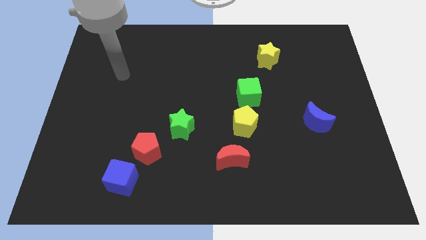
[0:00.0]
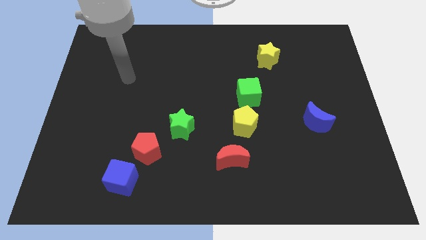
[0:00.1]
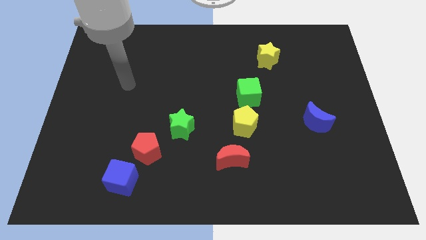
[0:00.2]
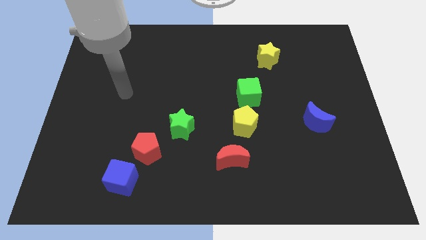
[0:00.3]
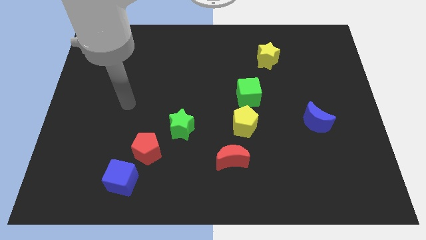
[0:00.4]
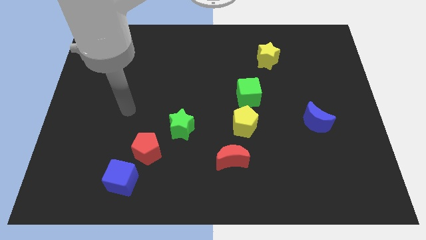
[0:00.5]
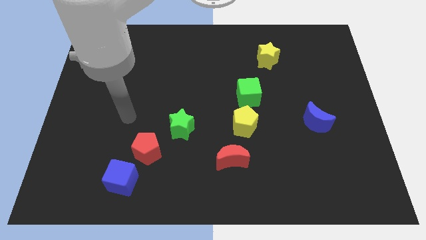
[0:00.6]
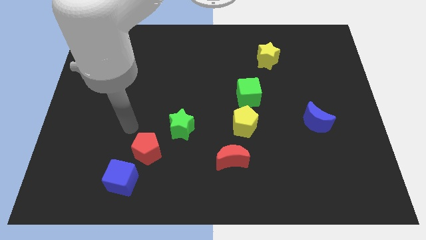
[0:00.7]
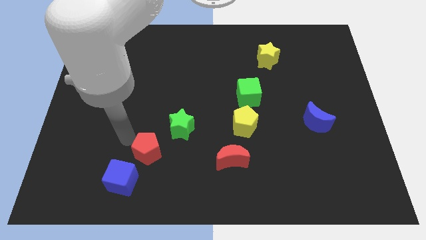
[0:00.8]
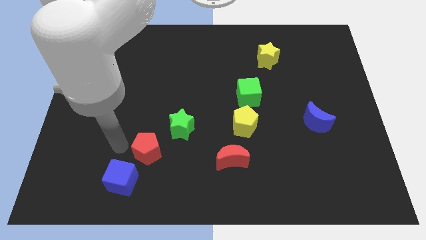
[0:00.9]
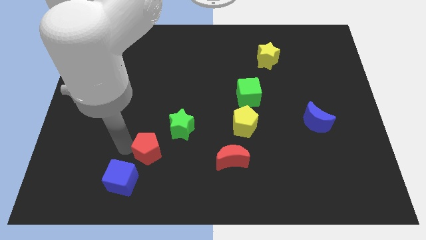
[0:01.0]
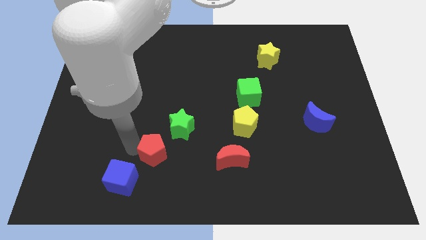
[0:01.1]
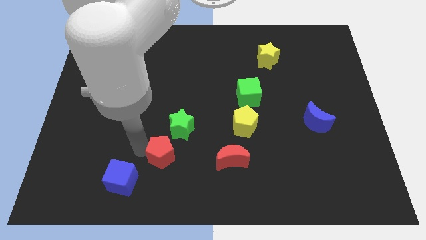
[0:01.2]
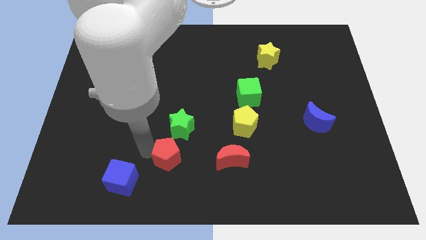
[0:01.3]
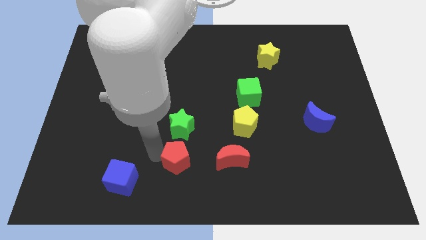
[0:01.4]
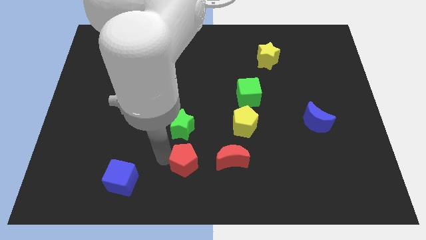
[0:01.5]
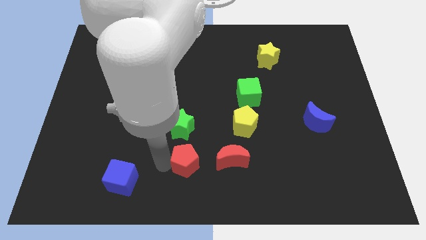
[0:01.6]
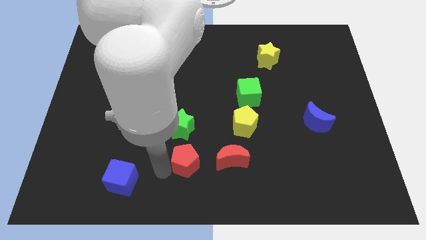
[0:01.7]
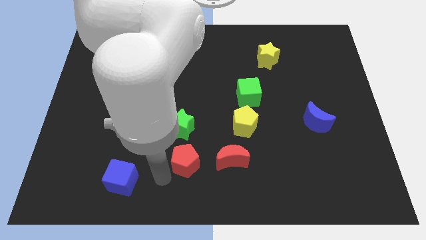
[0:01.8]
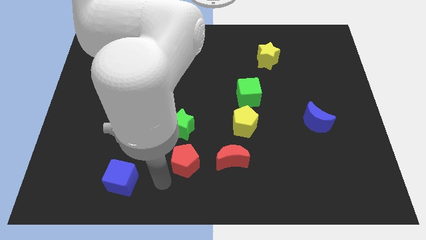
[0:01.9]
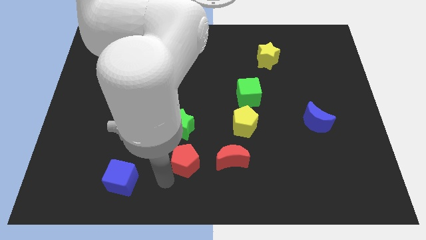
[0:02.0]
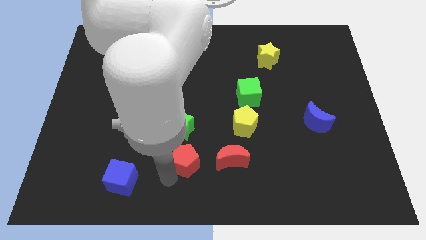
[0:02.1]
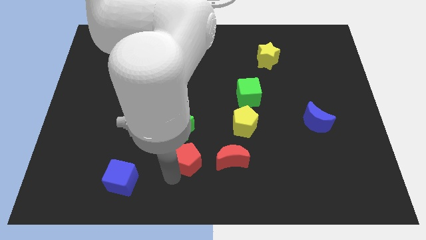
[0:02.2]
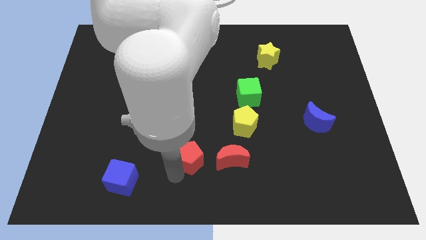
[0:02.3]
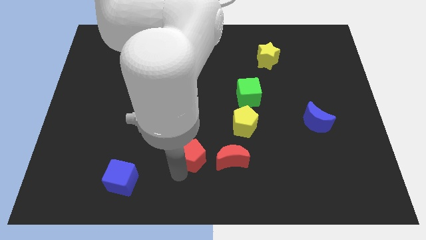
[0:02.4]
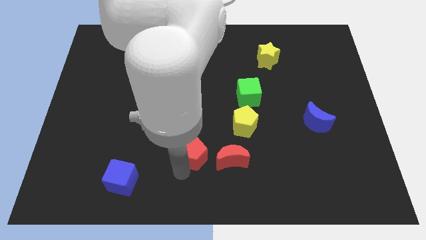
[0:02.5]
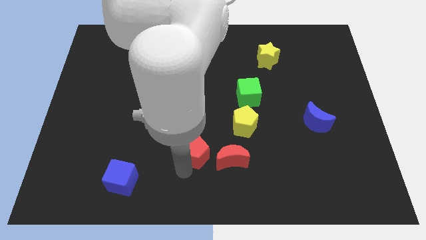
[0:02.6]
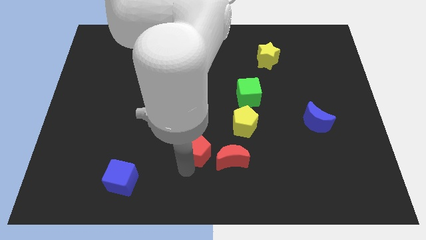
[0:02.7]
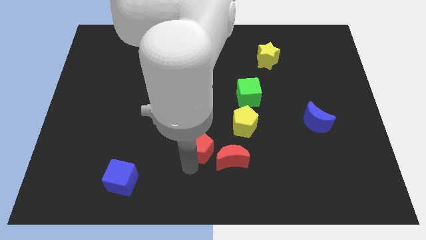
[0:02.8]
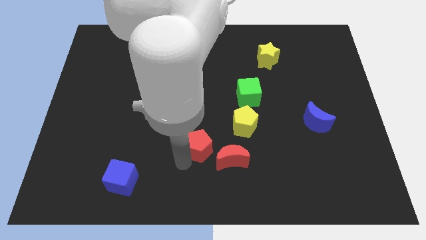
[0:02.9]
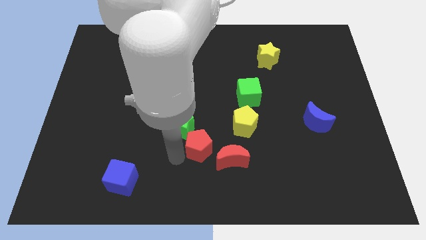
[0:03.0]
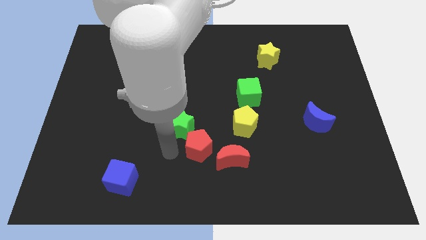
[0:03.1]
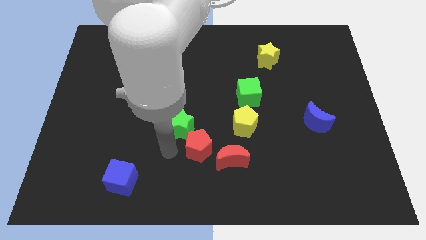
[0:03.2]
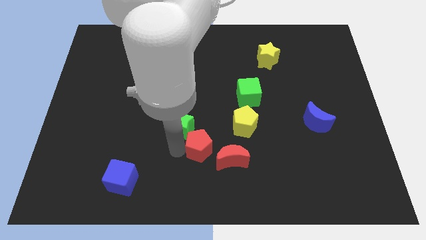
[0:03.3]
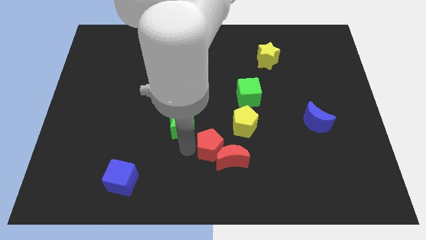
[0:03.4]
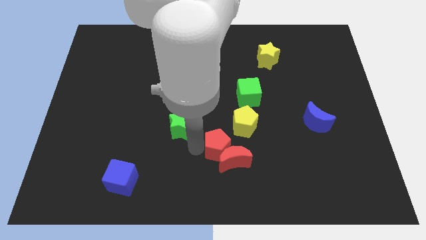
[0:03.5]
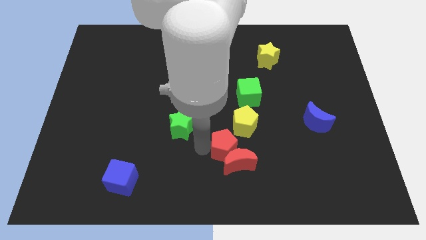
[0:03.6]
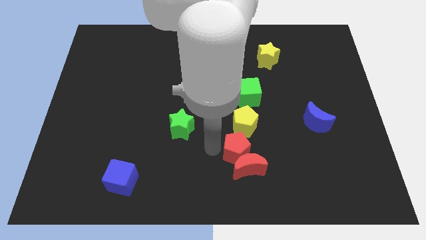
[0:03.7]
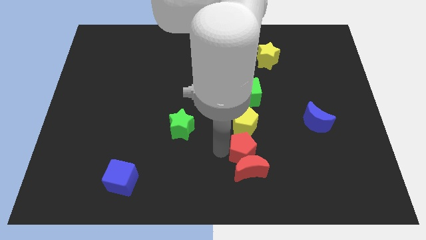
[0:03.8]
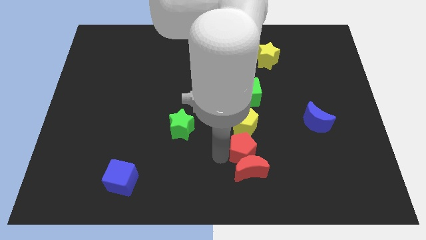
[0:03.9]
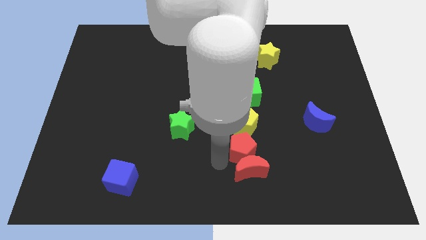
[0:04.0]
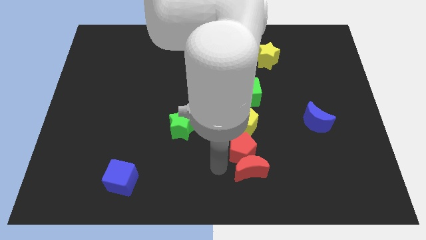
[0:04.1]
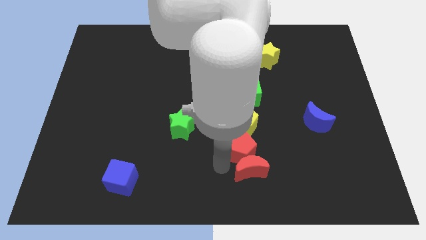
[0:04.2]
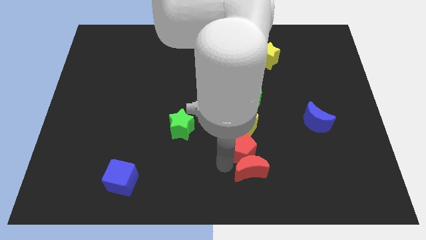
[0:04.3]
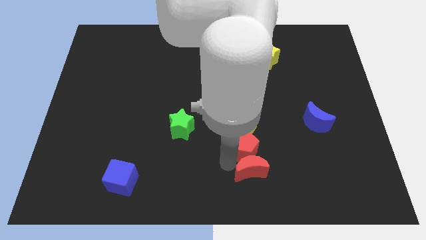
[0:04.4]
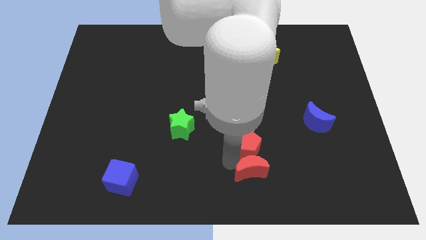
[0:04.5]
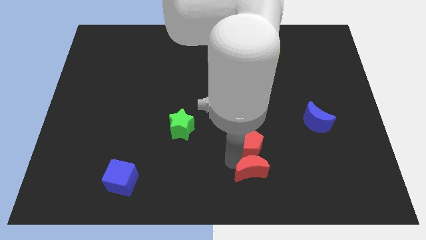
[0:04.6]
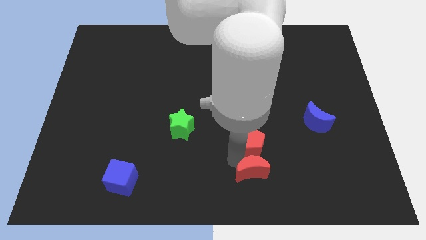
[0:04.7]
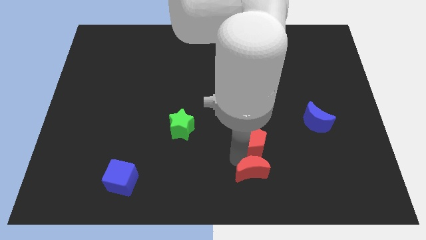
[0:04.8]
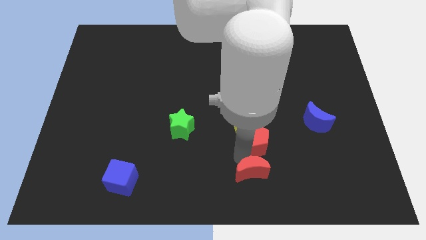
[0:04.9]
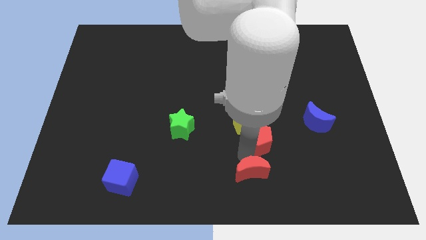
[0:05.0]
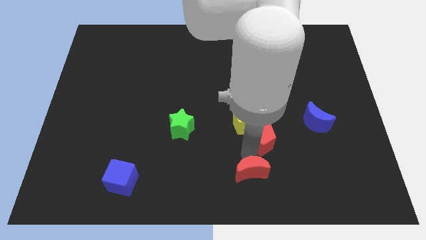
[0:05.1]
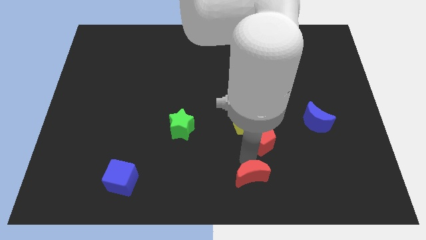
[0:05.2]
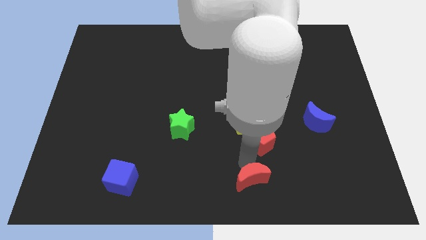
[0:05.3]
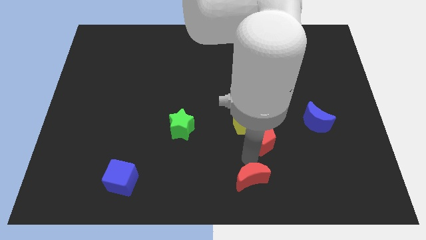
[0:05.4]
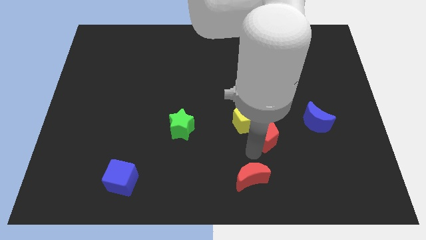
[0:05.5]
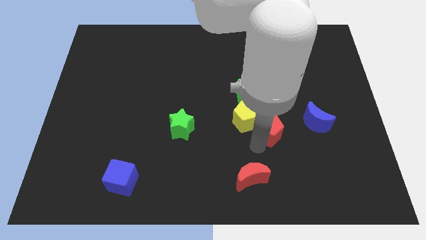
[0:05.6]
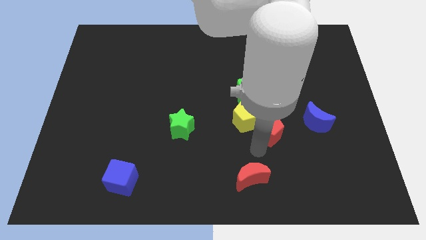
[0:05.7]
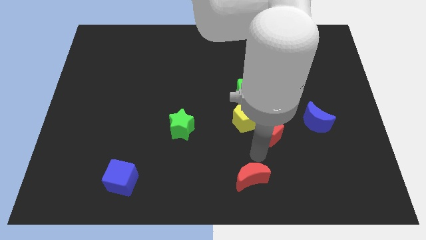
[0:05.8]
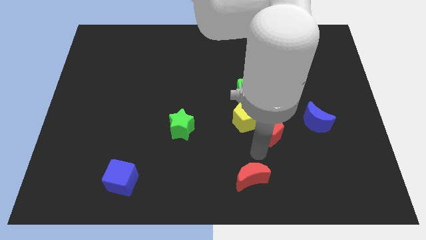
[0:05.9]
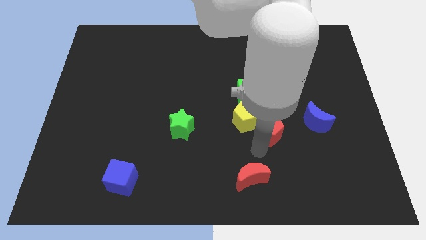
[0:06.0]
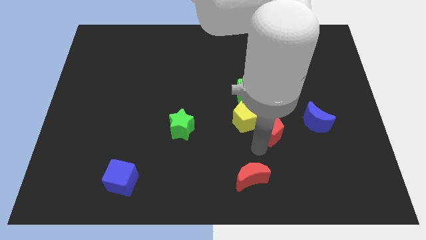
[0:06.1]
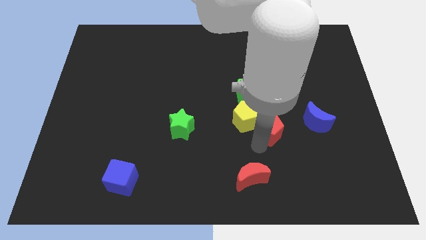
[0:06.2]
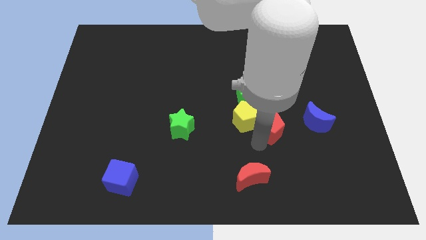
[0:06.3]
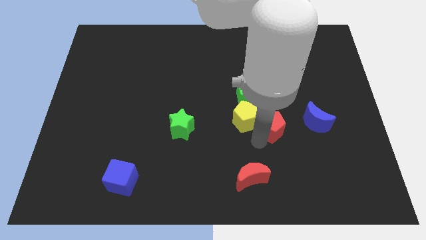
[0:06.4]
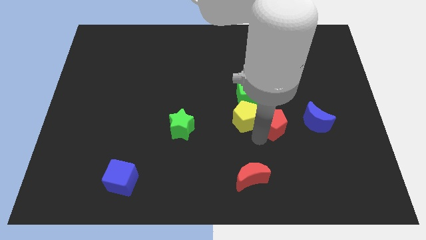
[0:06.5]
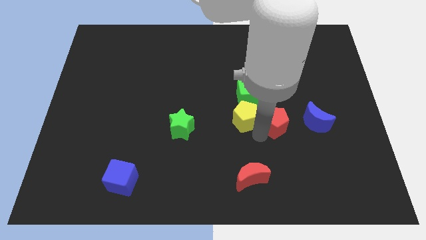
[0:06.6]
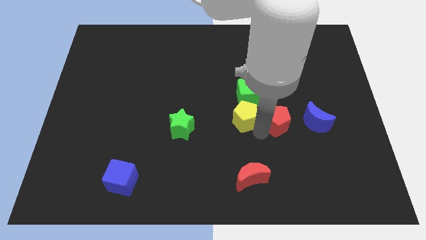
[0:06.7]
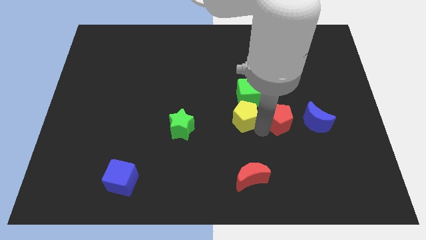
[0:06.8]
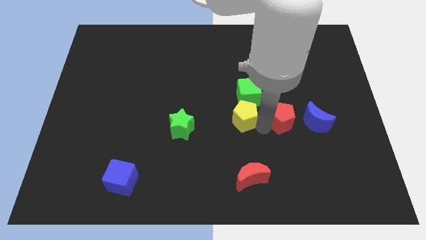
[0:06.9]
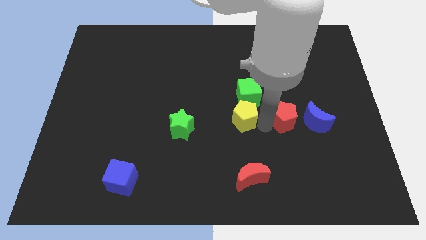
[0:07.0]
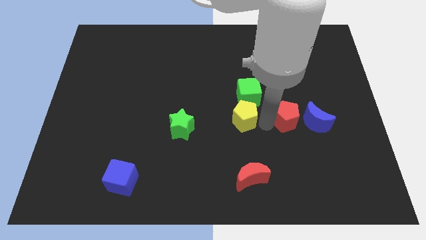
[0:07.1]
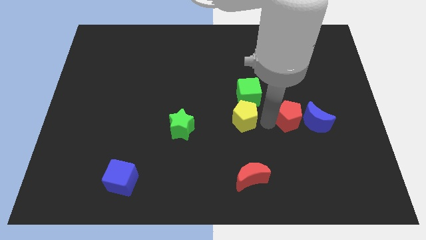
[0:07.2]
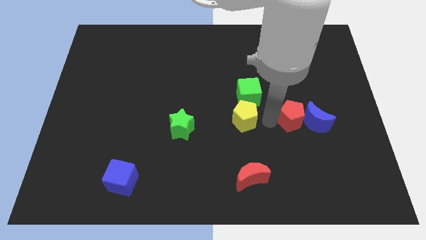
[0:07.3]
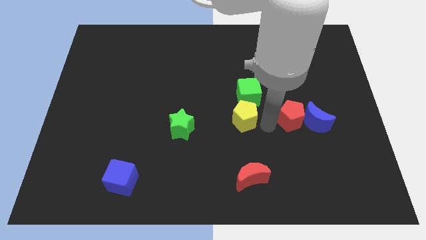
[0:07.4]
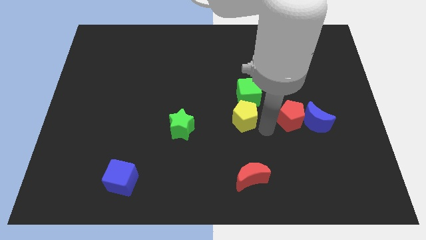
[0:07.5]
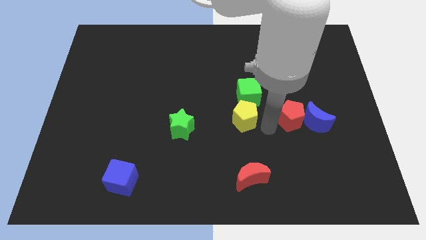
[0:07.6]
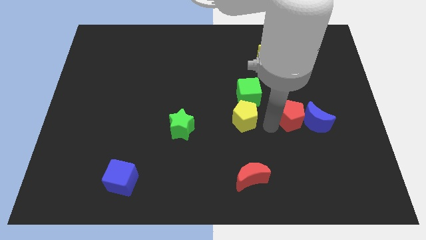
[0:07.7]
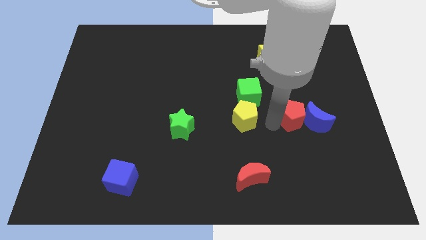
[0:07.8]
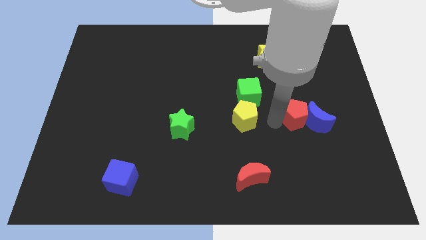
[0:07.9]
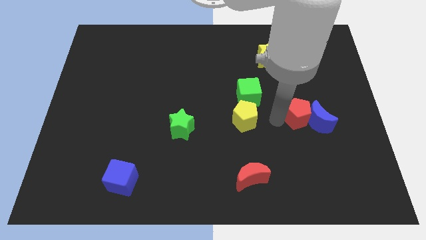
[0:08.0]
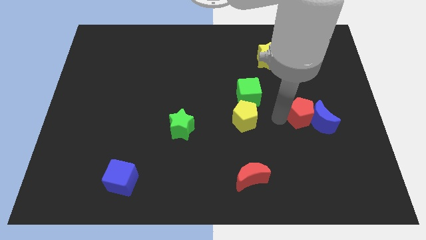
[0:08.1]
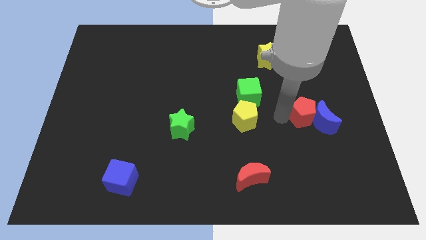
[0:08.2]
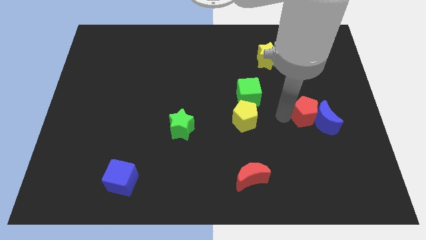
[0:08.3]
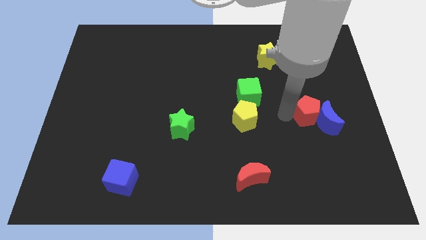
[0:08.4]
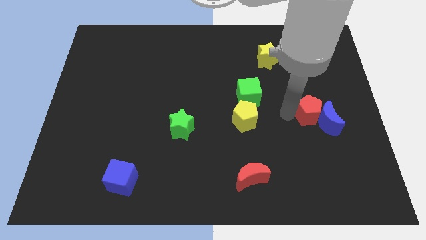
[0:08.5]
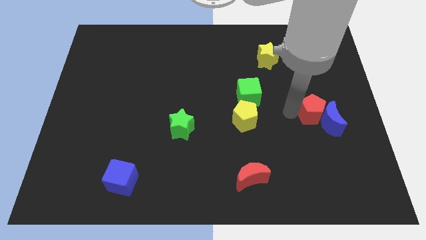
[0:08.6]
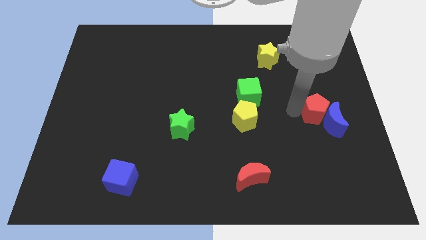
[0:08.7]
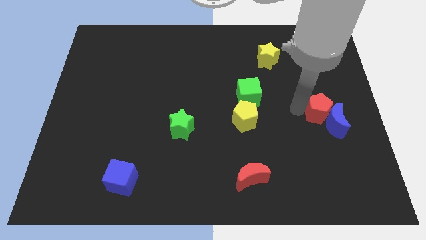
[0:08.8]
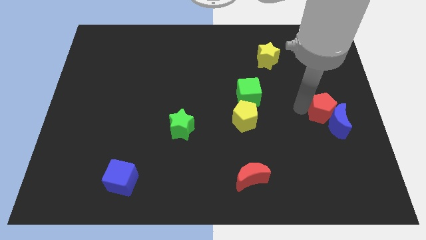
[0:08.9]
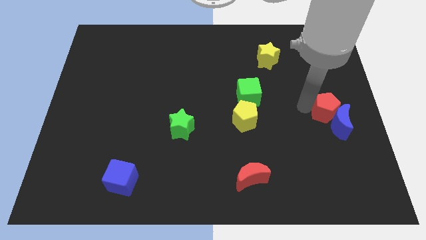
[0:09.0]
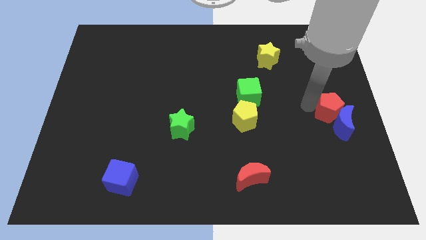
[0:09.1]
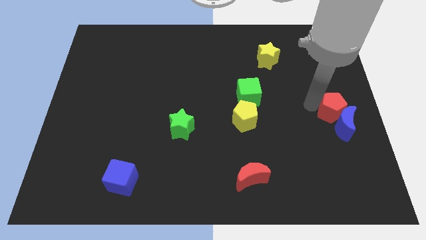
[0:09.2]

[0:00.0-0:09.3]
put the red pentagon diagonally up and to the right of the blue moon
